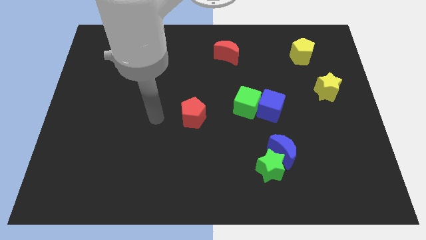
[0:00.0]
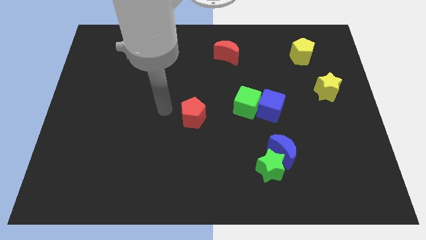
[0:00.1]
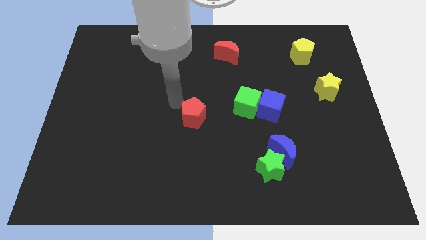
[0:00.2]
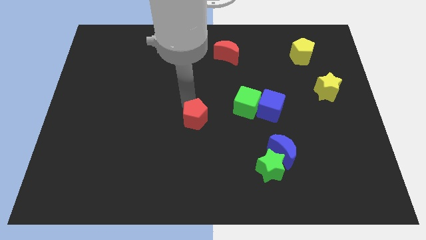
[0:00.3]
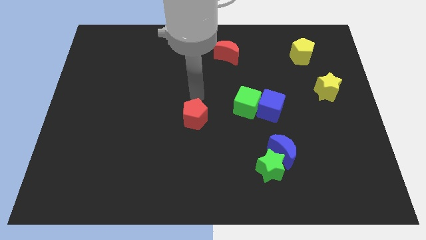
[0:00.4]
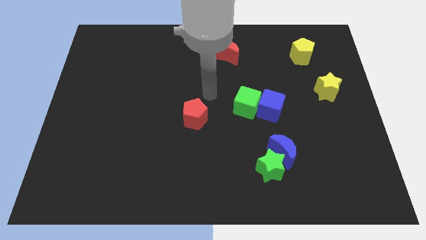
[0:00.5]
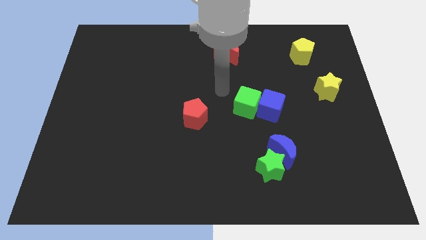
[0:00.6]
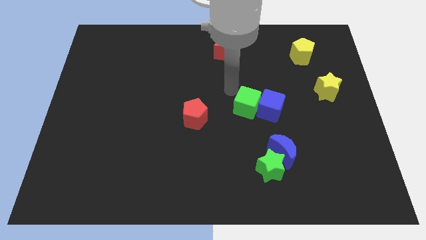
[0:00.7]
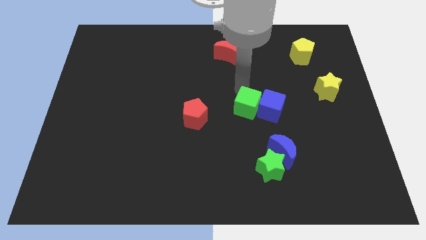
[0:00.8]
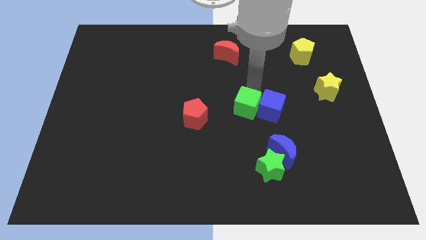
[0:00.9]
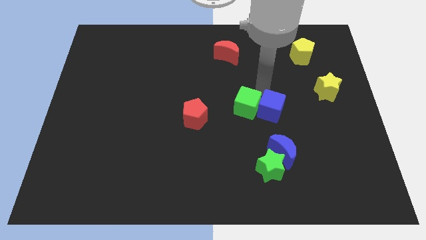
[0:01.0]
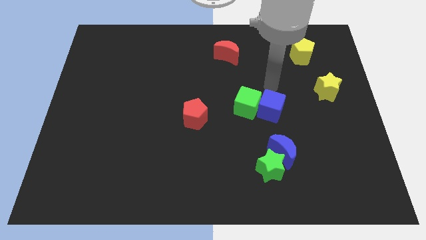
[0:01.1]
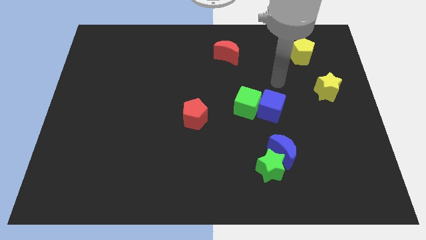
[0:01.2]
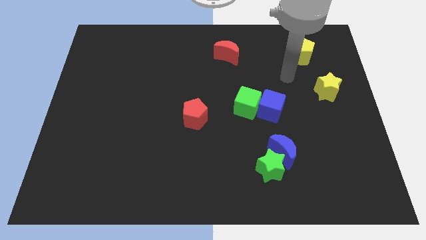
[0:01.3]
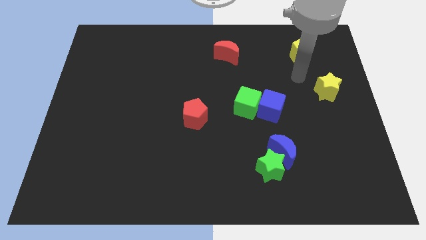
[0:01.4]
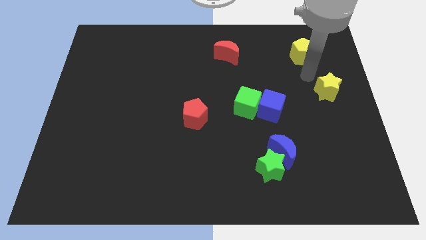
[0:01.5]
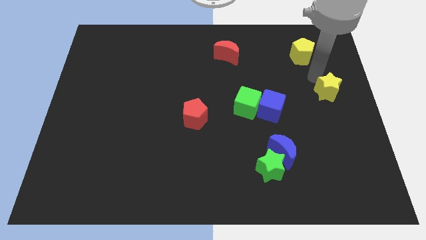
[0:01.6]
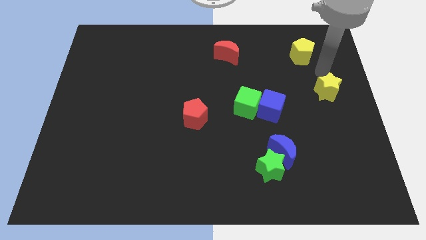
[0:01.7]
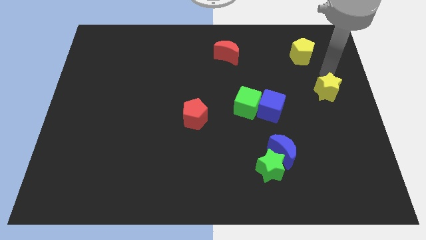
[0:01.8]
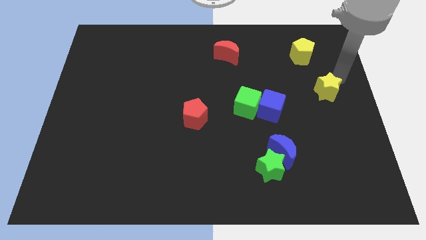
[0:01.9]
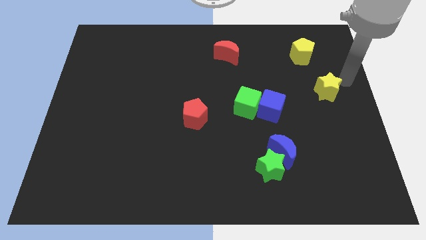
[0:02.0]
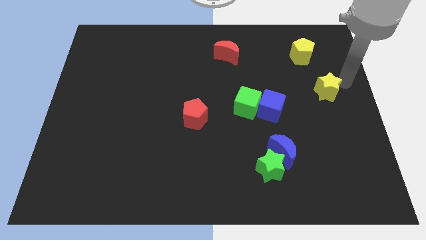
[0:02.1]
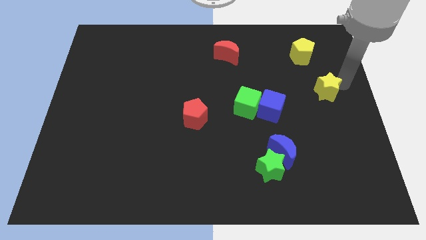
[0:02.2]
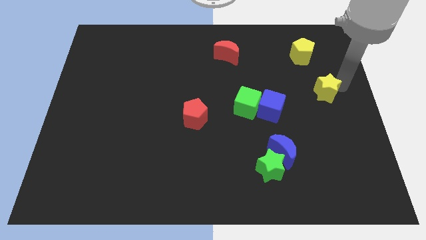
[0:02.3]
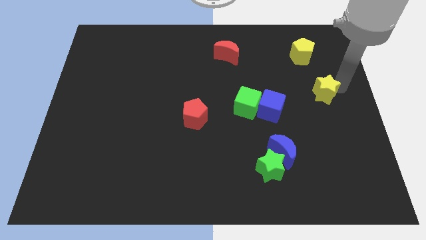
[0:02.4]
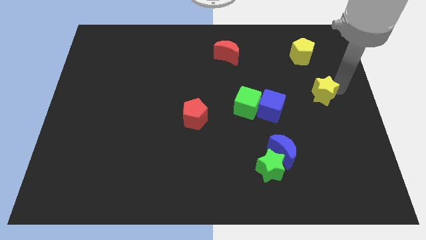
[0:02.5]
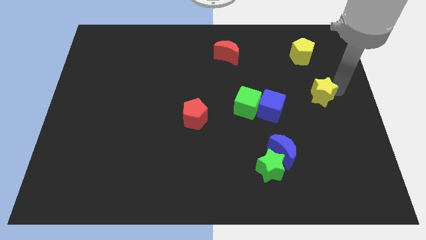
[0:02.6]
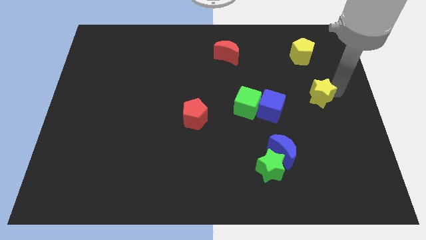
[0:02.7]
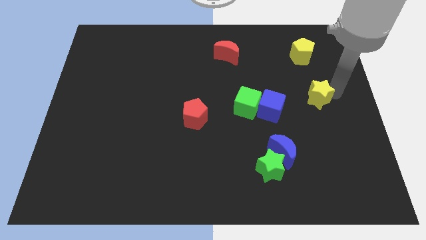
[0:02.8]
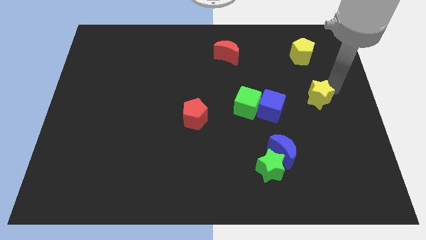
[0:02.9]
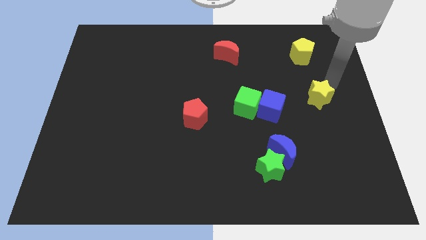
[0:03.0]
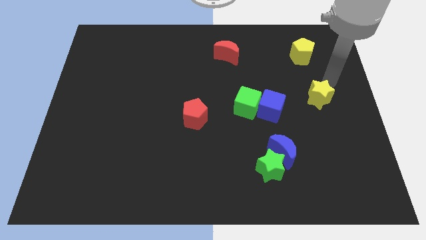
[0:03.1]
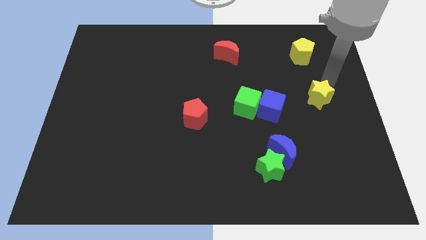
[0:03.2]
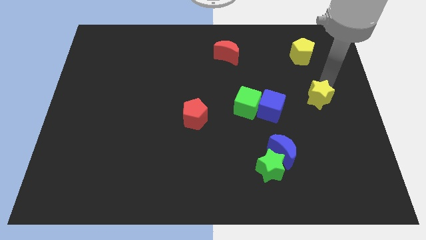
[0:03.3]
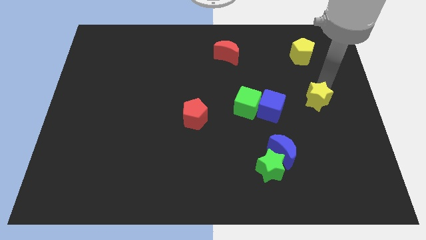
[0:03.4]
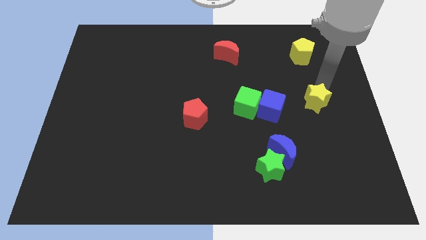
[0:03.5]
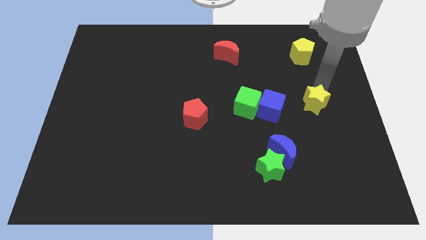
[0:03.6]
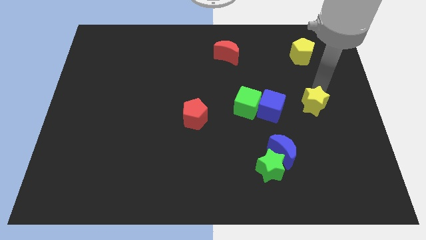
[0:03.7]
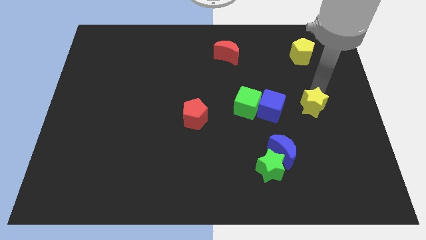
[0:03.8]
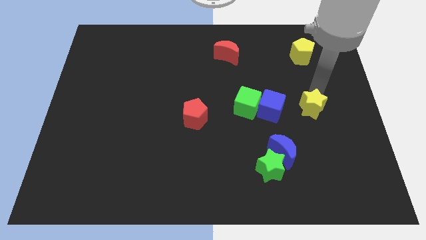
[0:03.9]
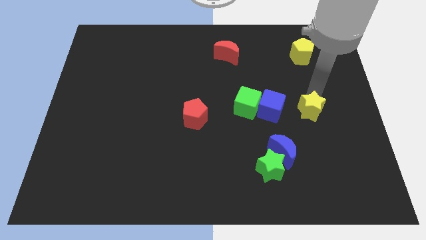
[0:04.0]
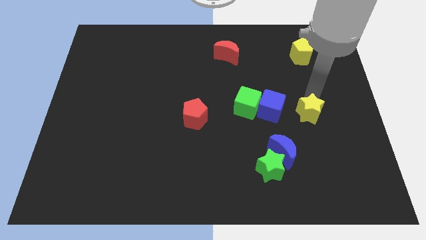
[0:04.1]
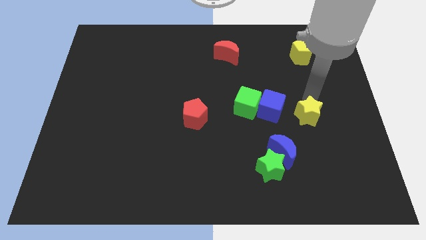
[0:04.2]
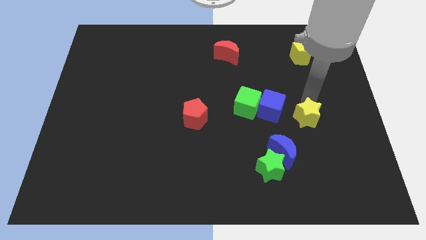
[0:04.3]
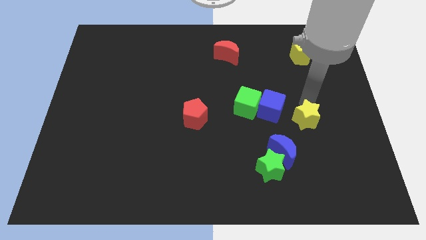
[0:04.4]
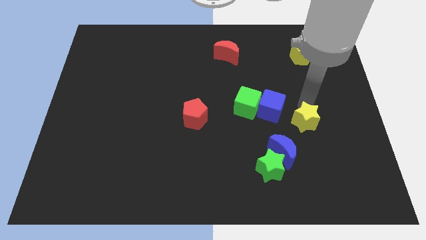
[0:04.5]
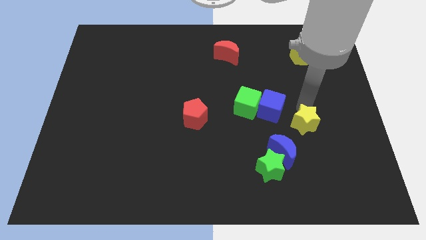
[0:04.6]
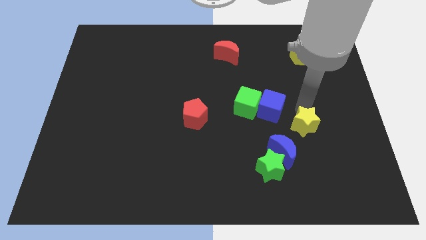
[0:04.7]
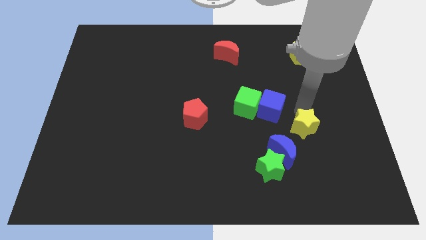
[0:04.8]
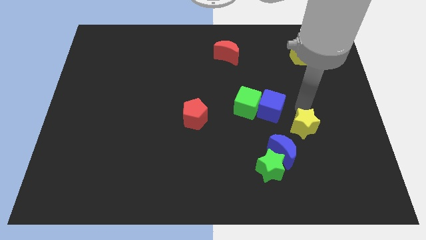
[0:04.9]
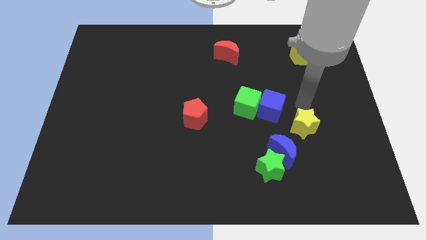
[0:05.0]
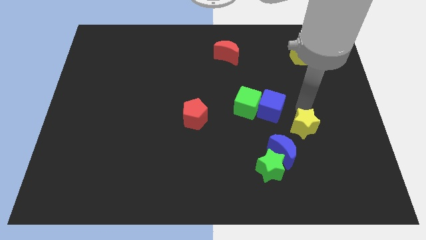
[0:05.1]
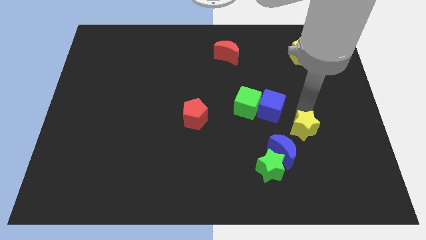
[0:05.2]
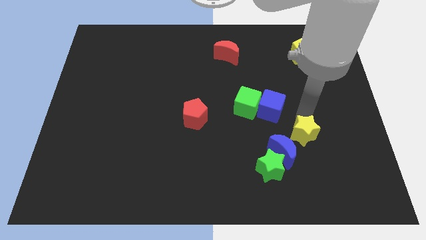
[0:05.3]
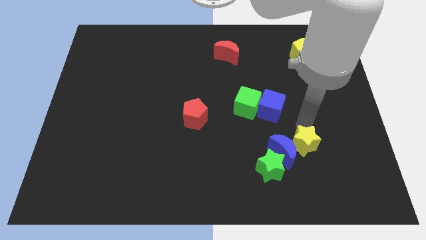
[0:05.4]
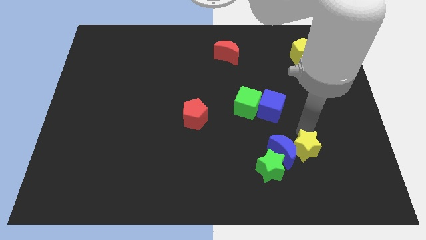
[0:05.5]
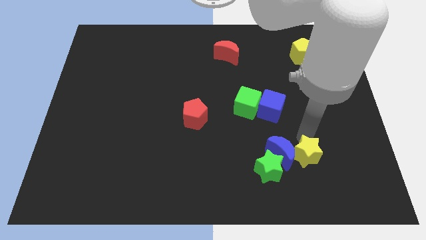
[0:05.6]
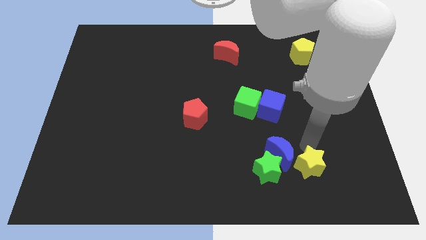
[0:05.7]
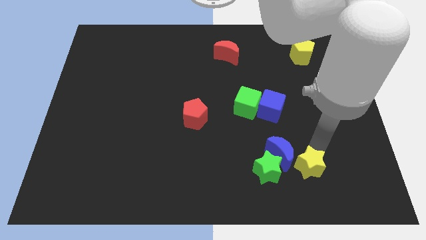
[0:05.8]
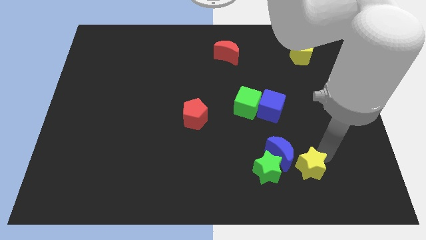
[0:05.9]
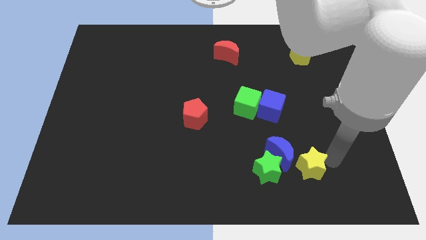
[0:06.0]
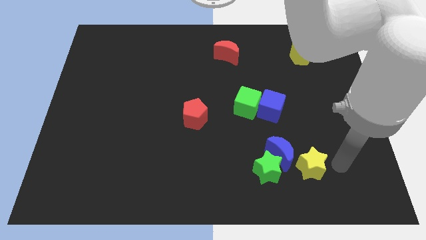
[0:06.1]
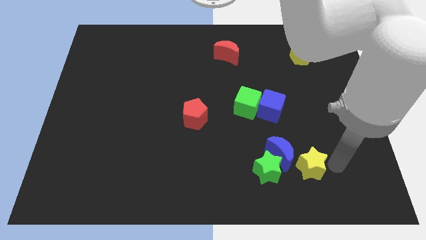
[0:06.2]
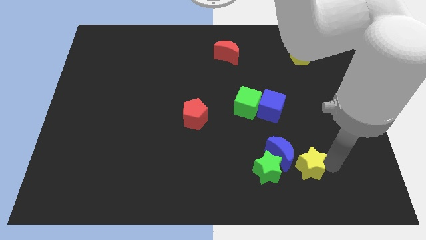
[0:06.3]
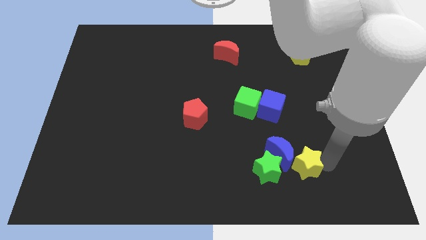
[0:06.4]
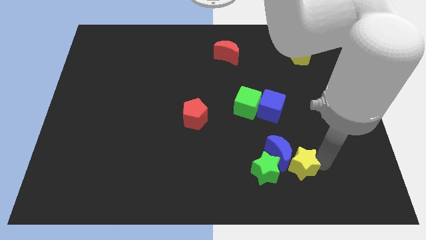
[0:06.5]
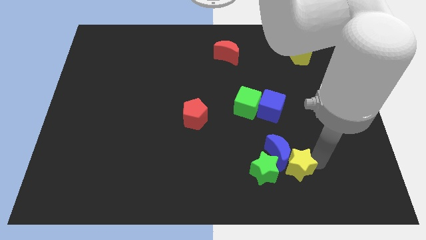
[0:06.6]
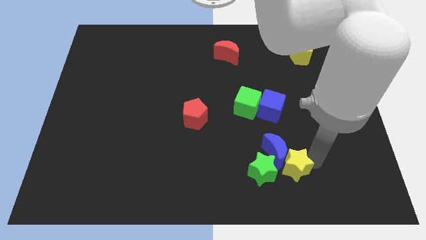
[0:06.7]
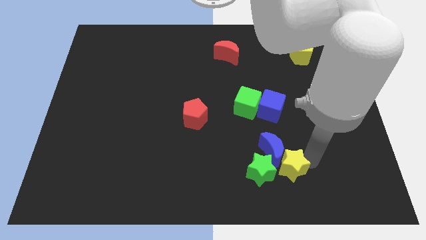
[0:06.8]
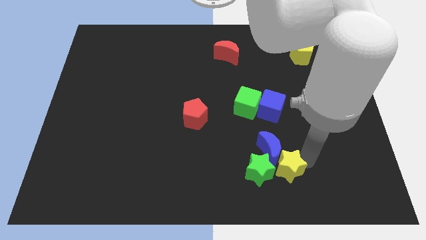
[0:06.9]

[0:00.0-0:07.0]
slide the yellow star close to the green star
